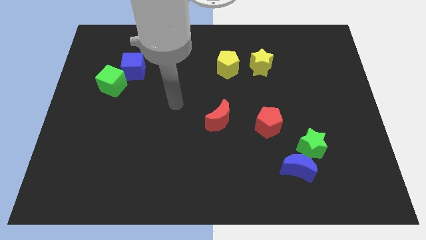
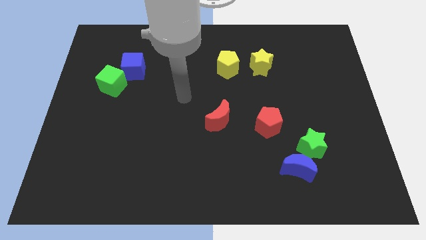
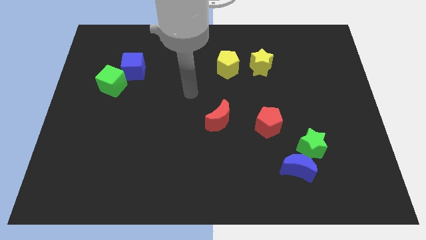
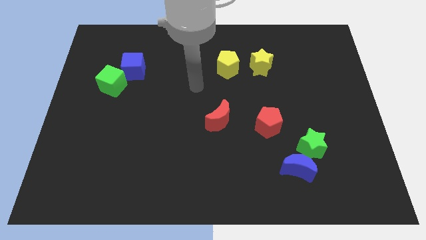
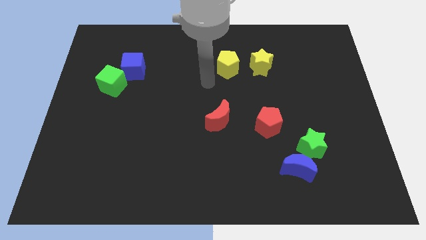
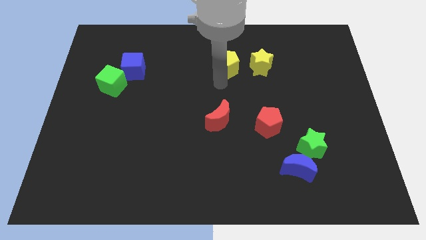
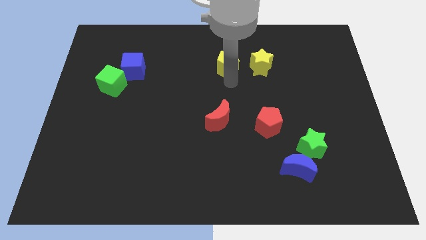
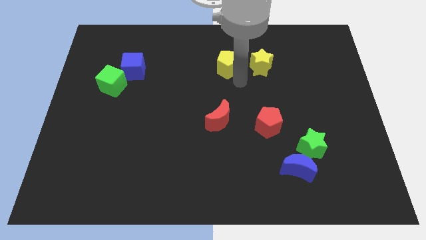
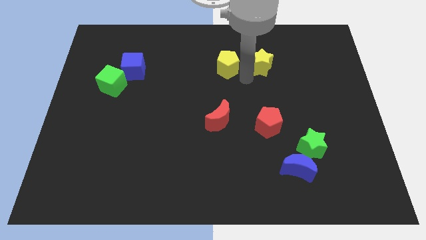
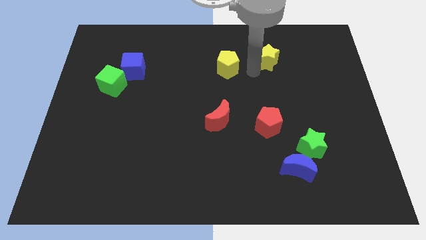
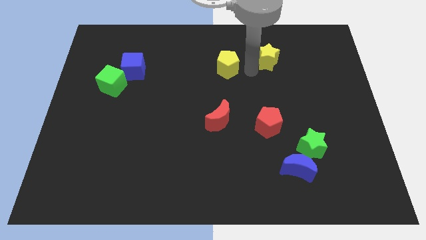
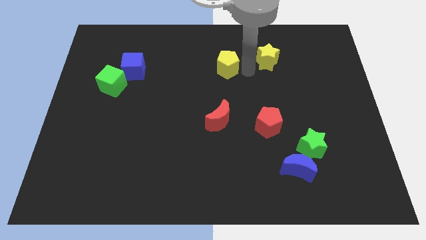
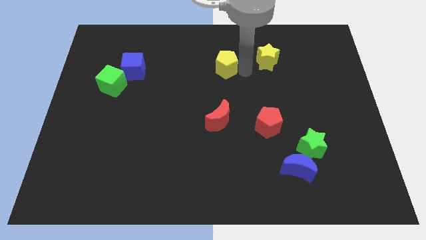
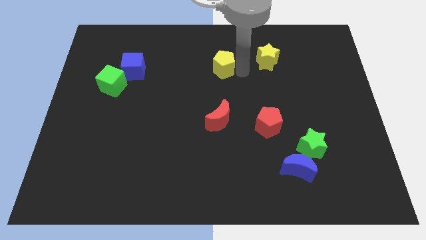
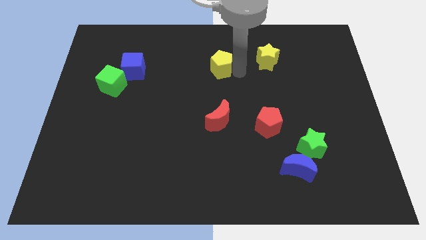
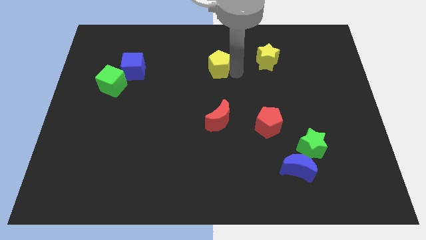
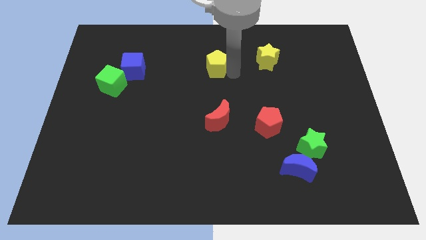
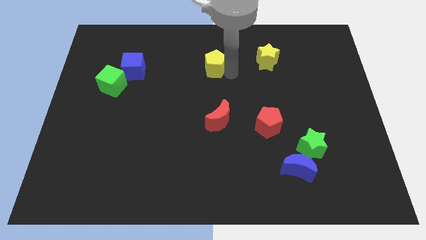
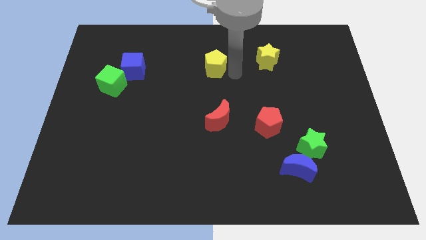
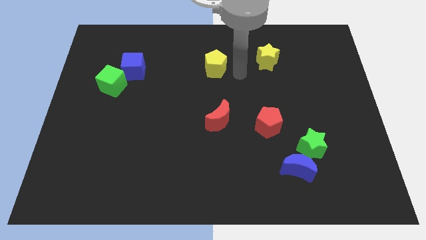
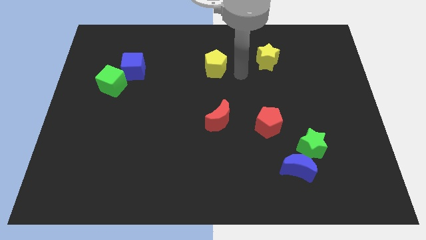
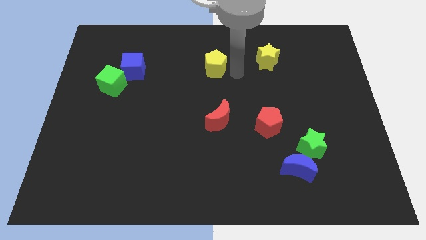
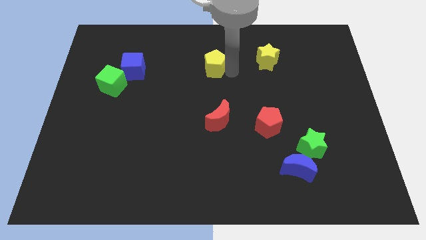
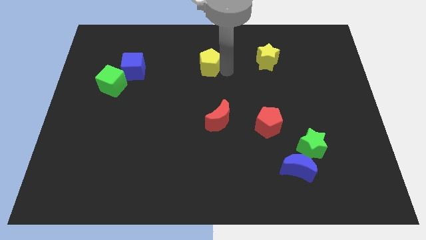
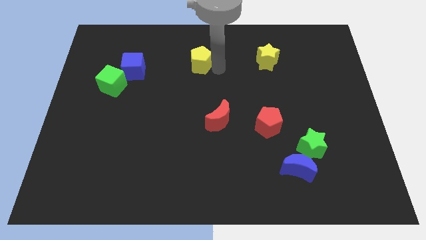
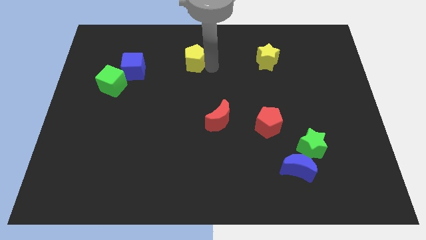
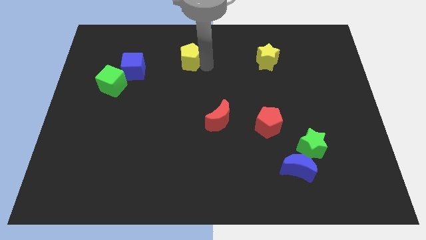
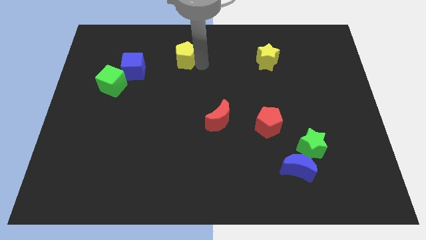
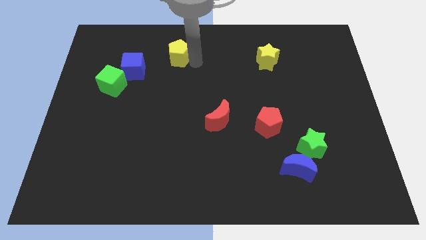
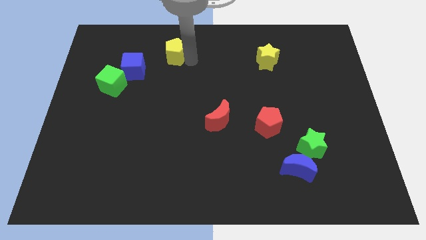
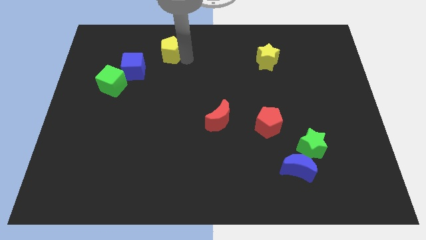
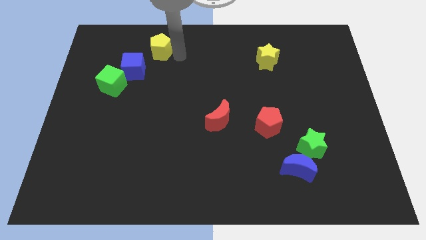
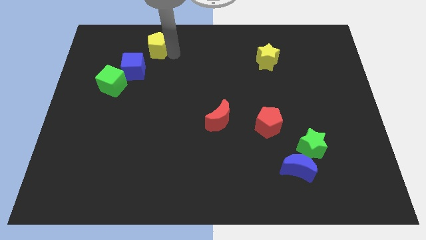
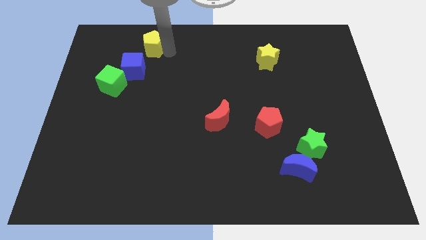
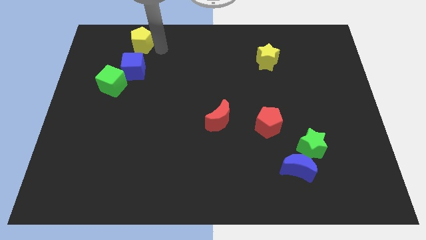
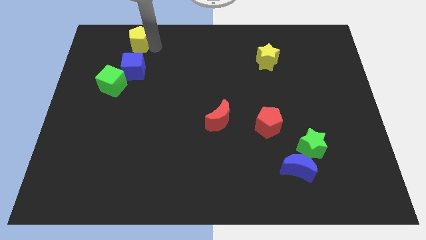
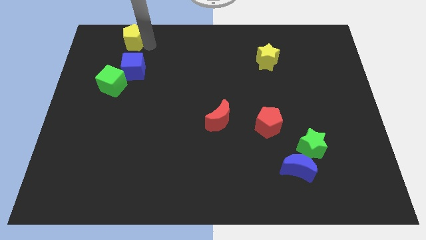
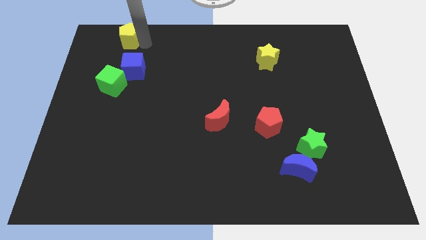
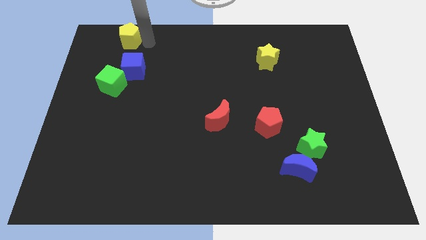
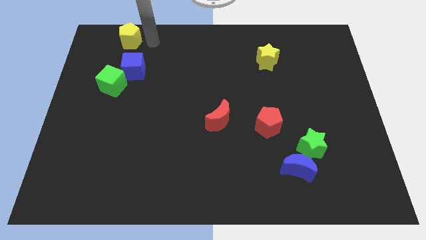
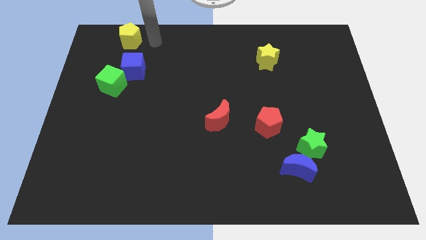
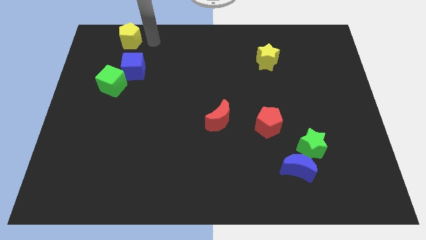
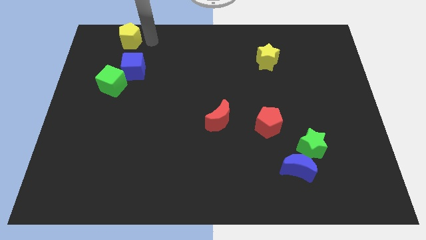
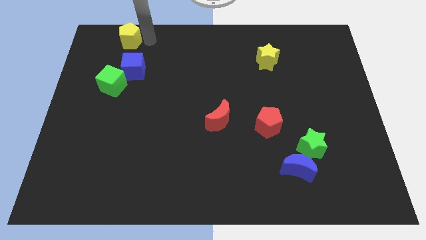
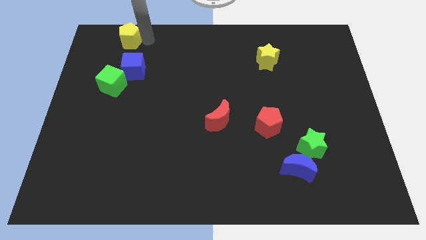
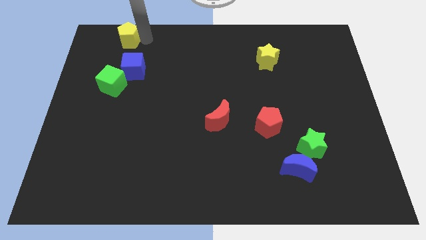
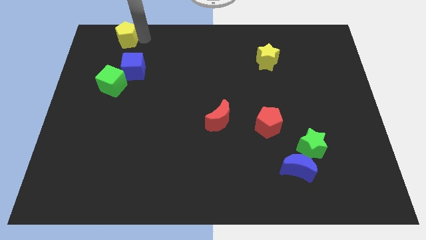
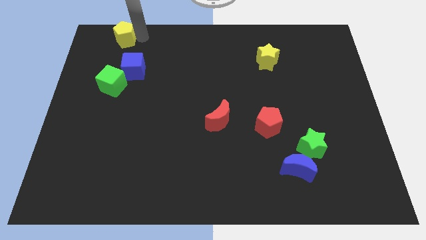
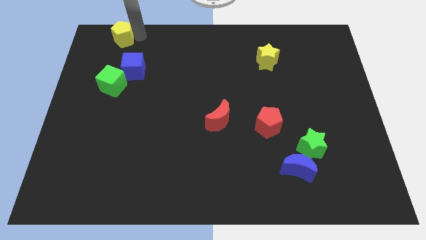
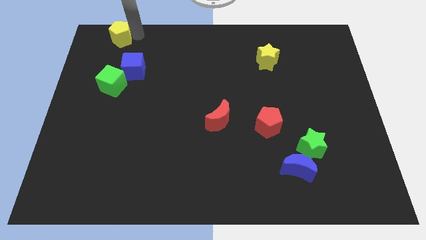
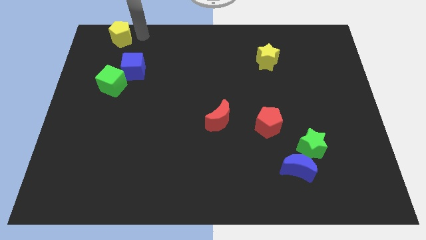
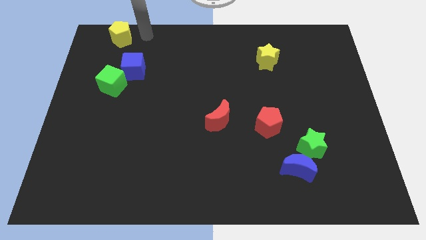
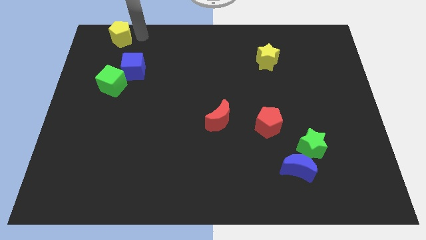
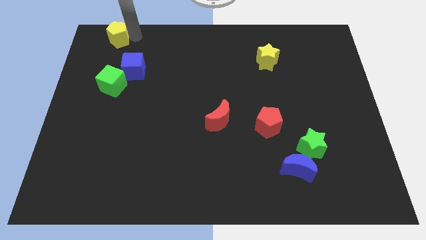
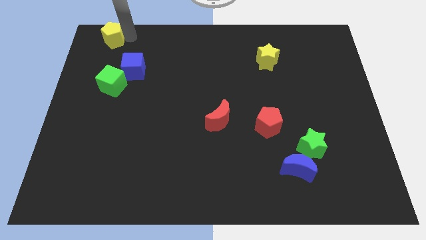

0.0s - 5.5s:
push the yellow pentagon to the top left
